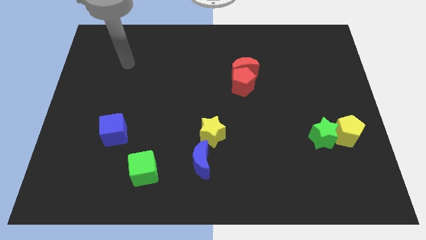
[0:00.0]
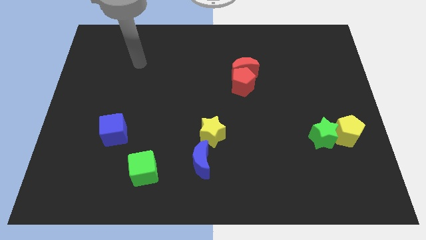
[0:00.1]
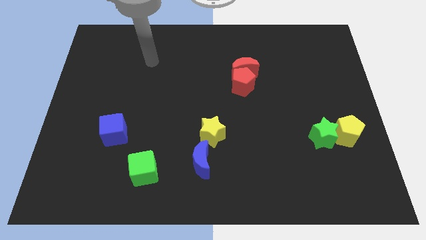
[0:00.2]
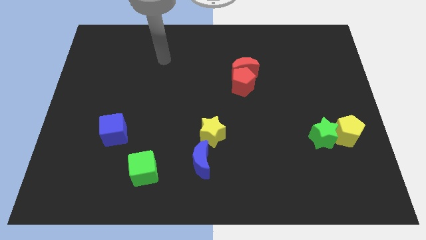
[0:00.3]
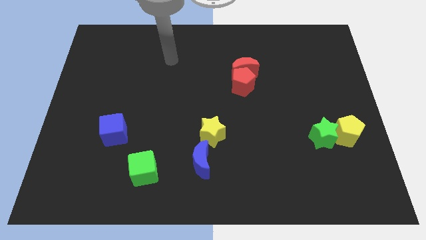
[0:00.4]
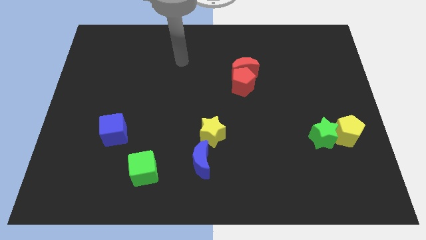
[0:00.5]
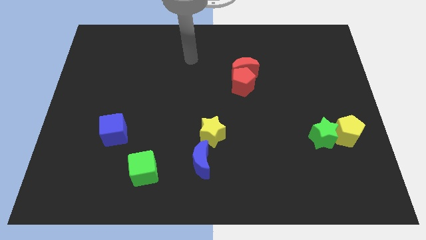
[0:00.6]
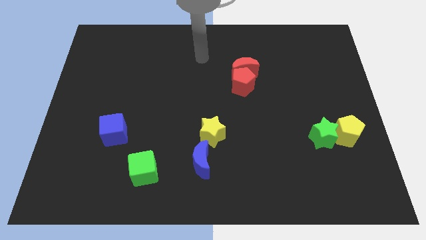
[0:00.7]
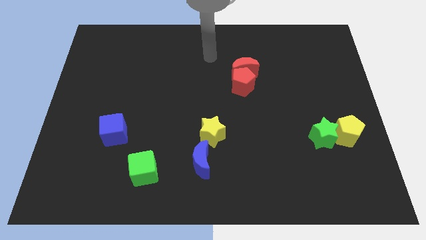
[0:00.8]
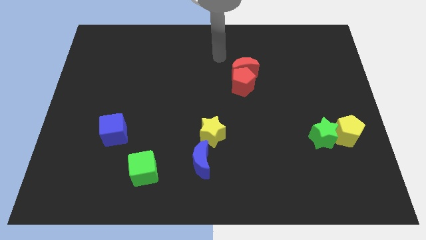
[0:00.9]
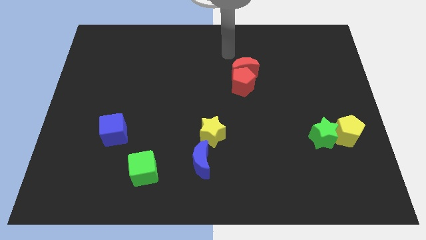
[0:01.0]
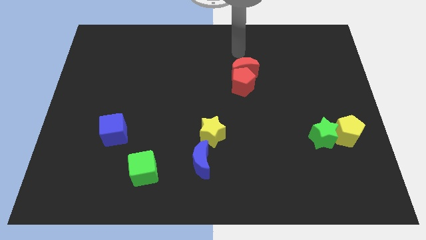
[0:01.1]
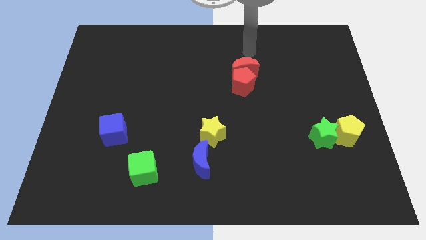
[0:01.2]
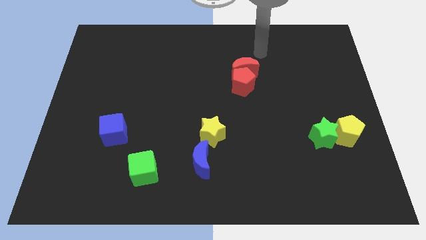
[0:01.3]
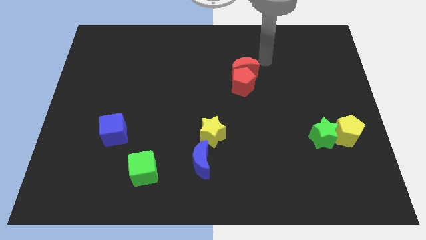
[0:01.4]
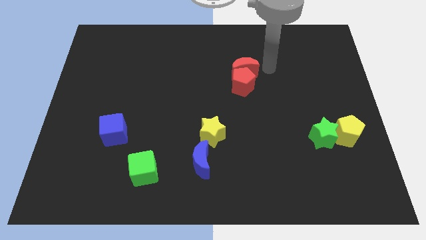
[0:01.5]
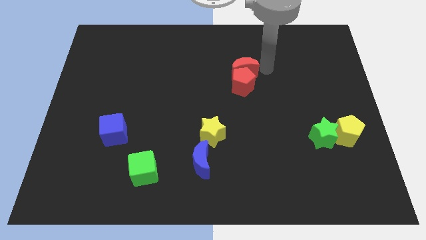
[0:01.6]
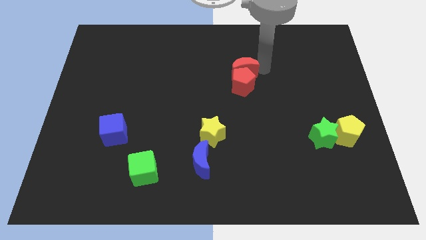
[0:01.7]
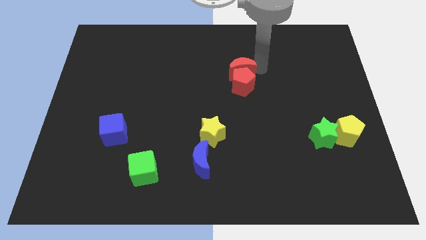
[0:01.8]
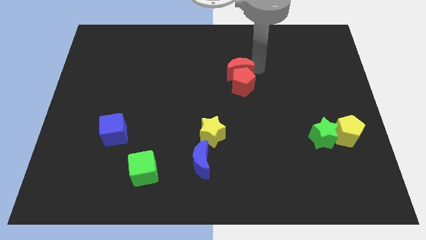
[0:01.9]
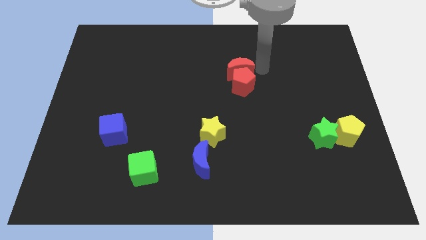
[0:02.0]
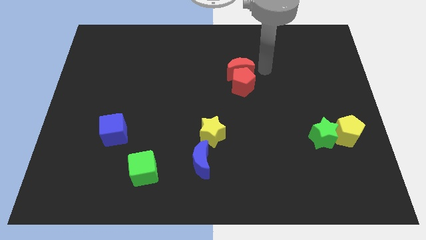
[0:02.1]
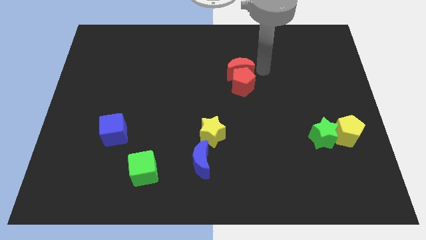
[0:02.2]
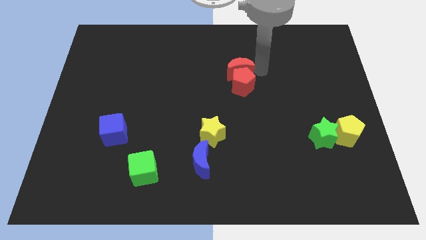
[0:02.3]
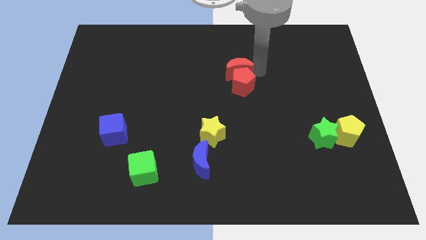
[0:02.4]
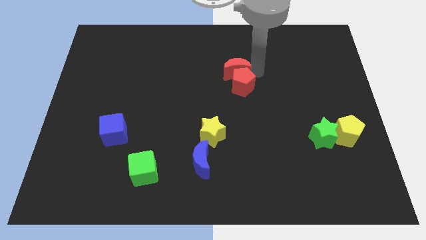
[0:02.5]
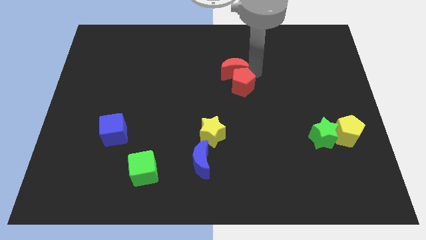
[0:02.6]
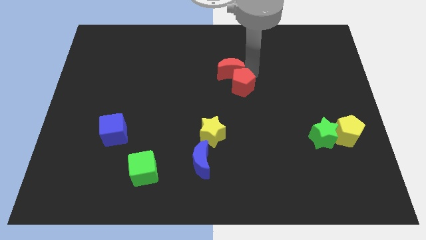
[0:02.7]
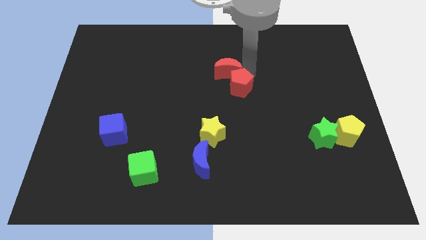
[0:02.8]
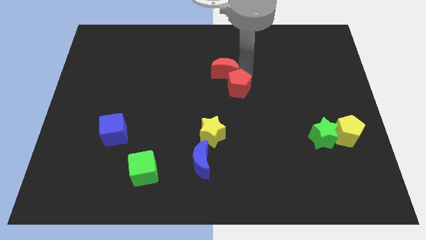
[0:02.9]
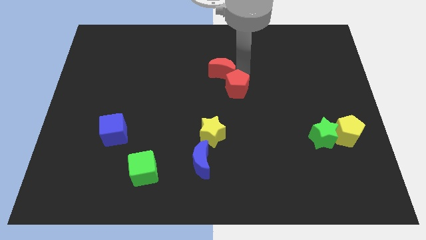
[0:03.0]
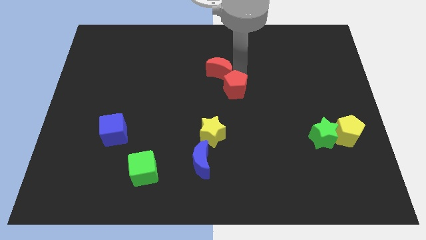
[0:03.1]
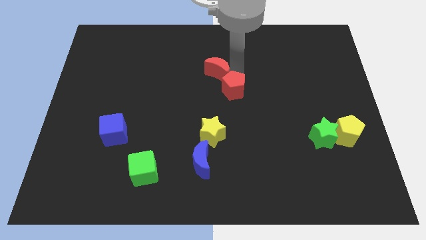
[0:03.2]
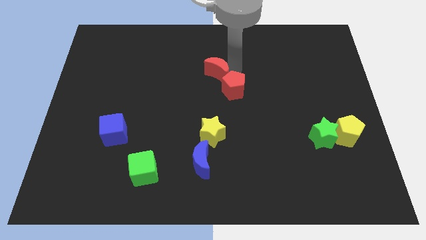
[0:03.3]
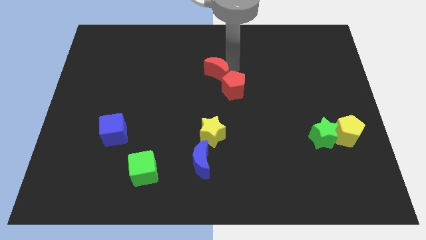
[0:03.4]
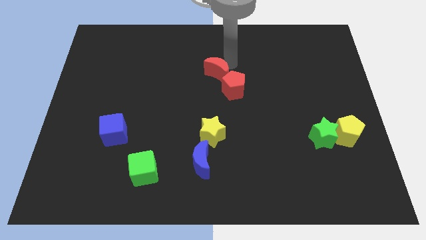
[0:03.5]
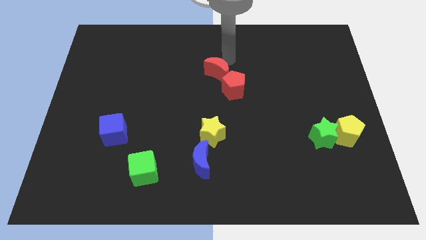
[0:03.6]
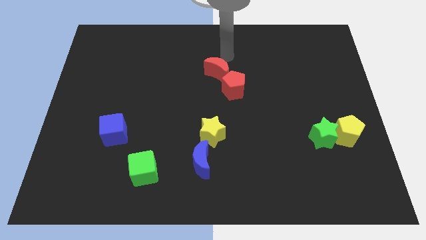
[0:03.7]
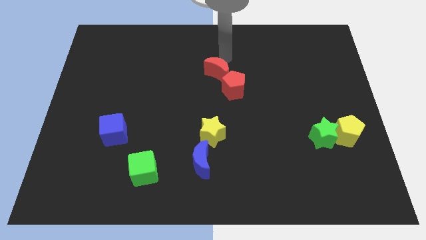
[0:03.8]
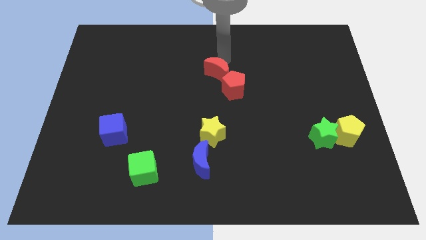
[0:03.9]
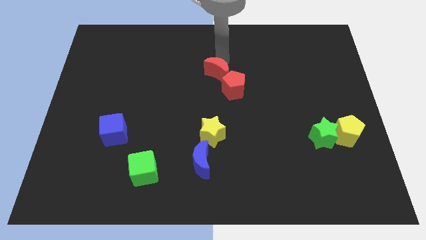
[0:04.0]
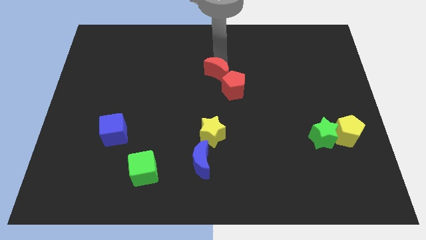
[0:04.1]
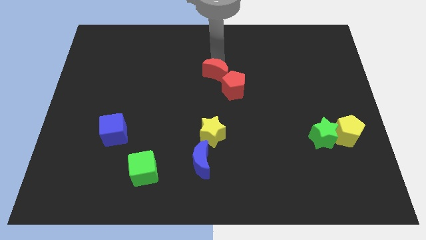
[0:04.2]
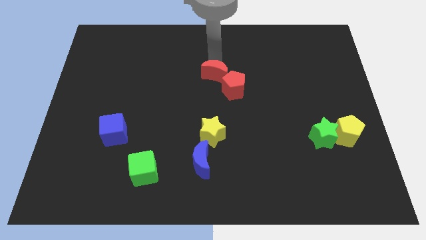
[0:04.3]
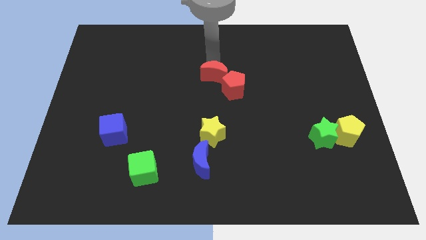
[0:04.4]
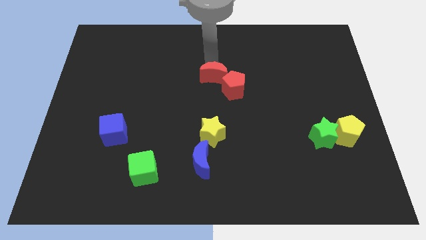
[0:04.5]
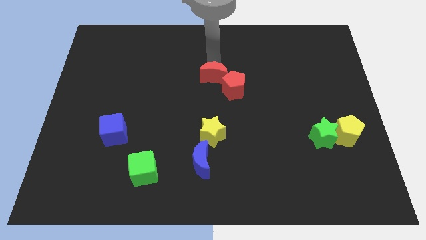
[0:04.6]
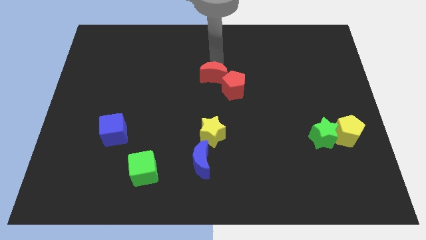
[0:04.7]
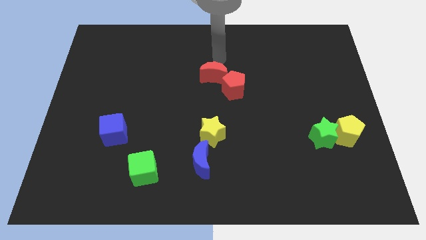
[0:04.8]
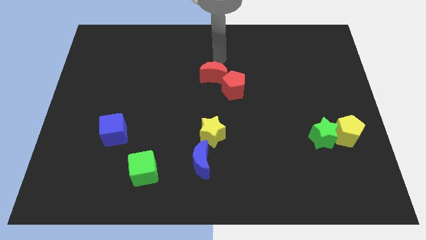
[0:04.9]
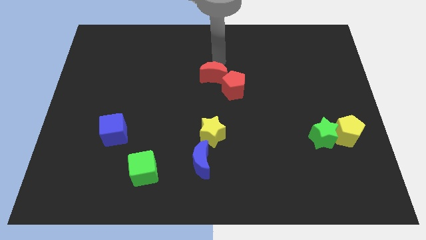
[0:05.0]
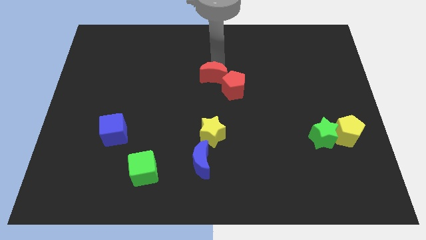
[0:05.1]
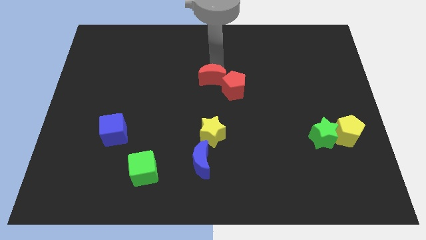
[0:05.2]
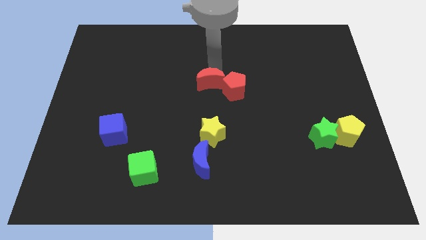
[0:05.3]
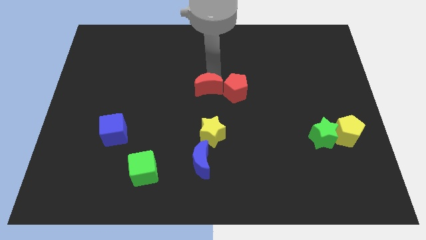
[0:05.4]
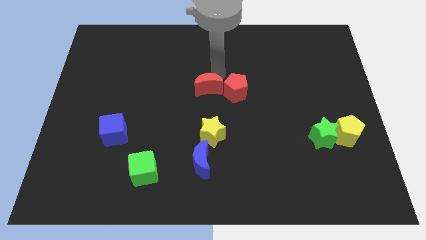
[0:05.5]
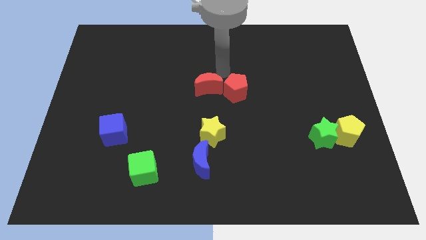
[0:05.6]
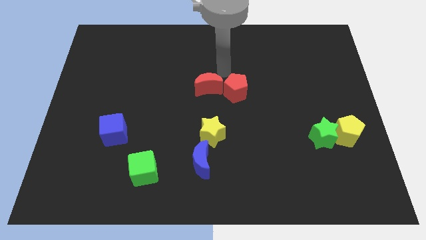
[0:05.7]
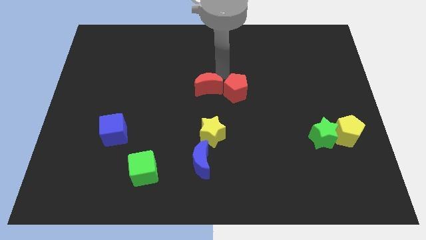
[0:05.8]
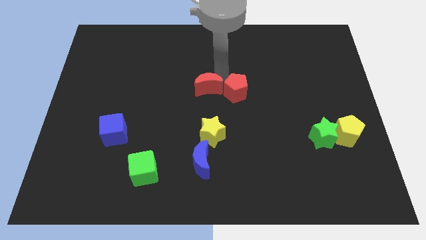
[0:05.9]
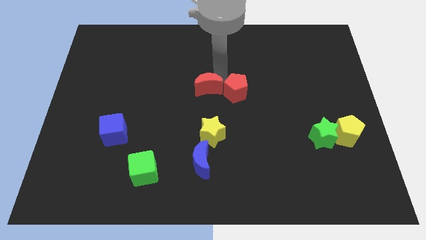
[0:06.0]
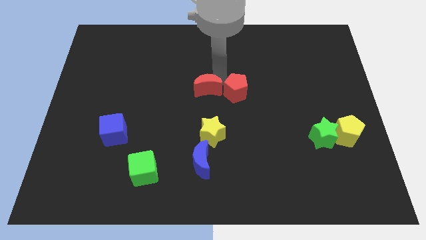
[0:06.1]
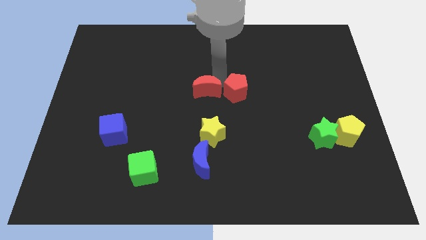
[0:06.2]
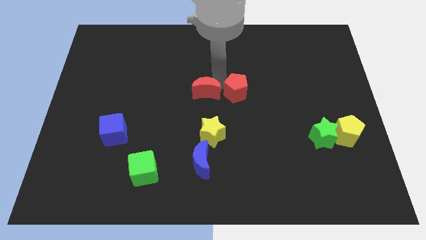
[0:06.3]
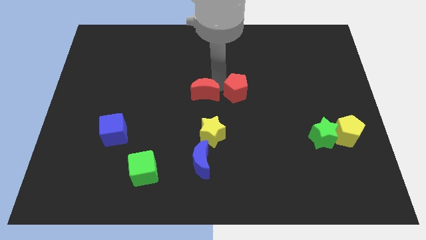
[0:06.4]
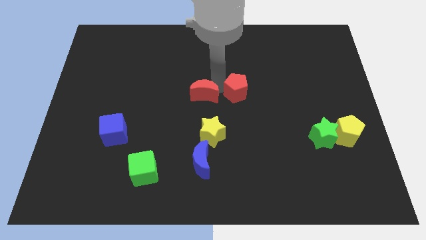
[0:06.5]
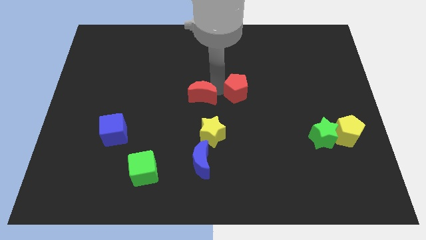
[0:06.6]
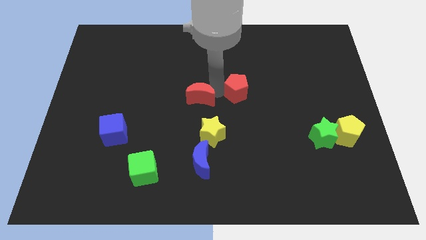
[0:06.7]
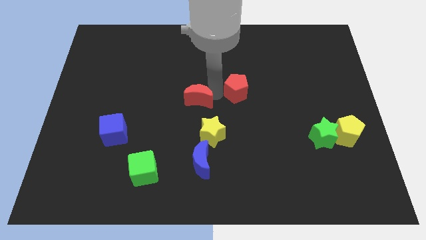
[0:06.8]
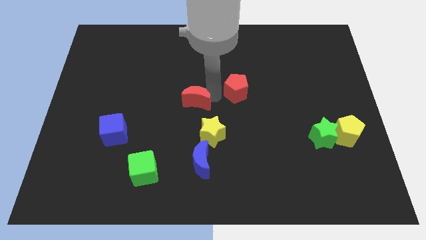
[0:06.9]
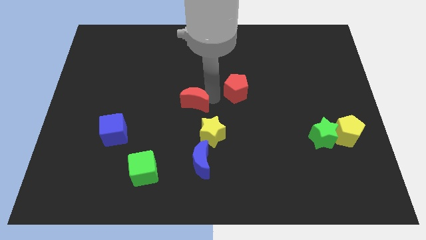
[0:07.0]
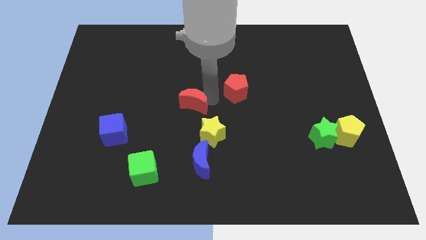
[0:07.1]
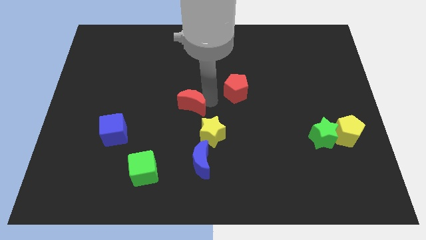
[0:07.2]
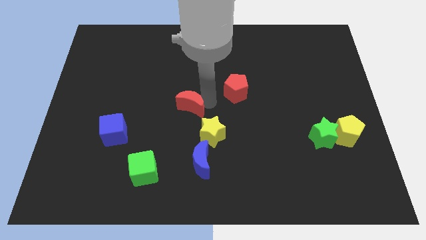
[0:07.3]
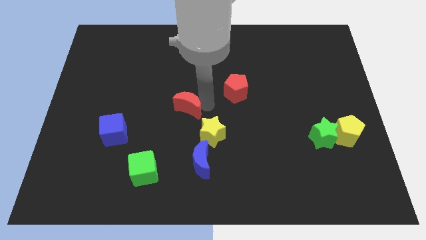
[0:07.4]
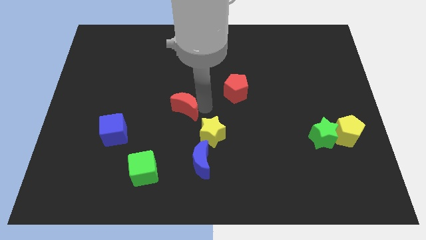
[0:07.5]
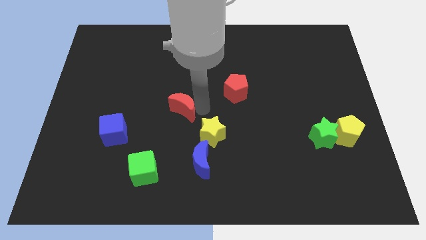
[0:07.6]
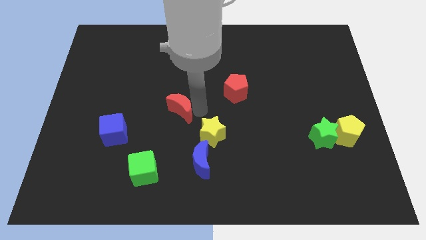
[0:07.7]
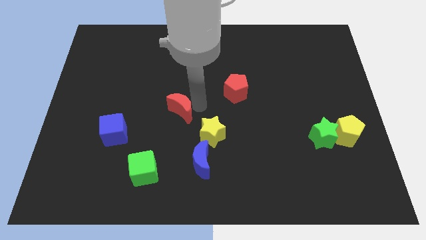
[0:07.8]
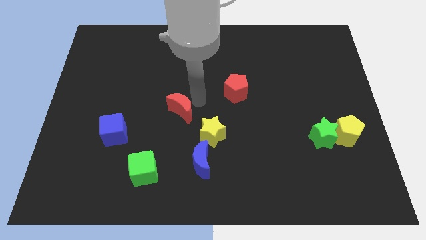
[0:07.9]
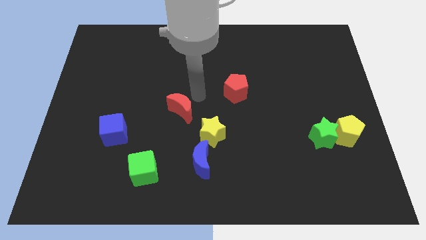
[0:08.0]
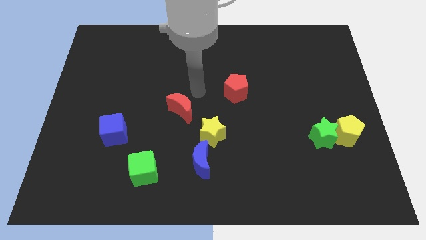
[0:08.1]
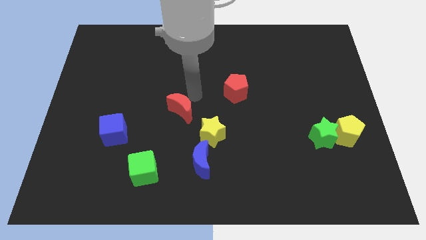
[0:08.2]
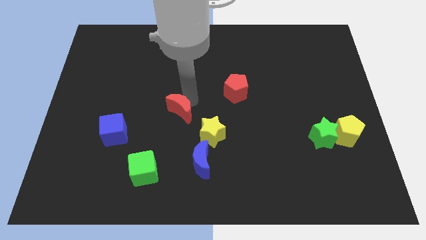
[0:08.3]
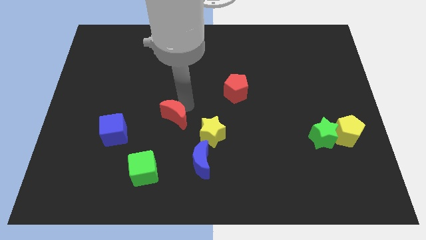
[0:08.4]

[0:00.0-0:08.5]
move the red moon down and left
